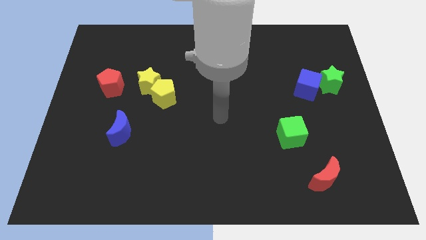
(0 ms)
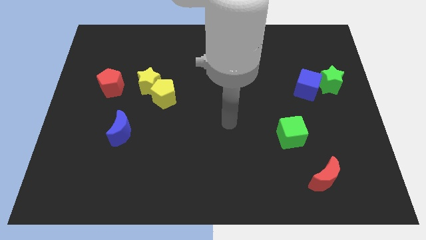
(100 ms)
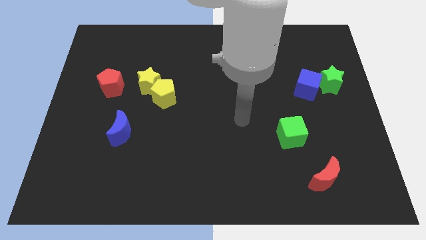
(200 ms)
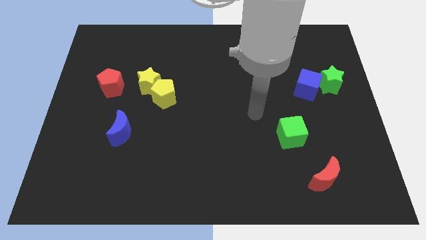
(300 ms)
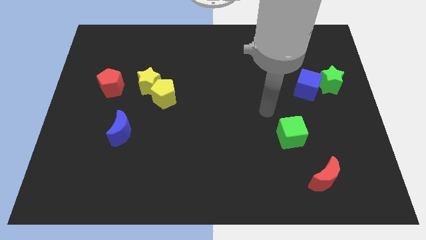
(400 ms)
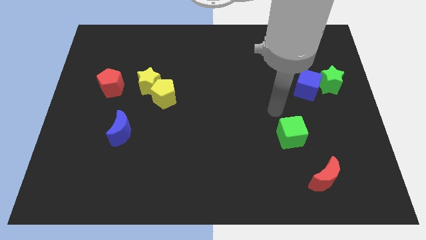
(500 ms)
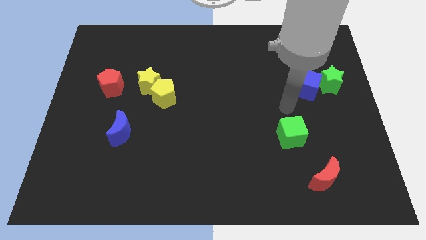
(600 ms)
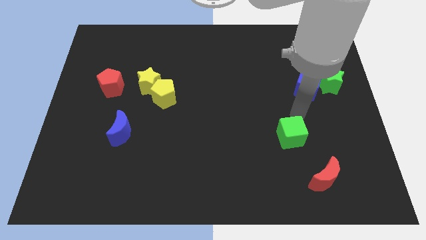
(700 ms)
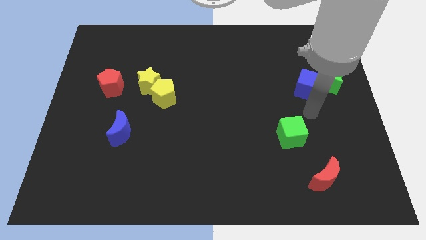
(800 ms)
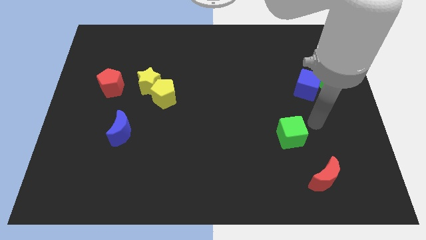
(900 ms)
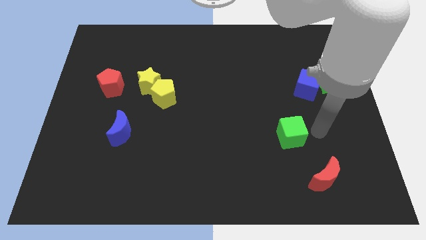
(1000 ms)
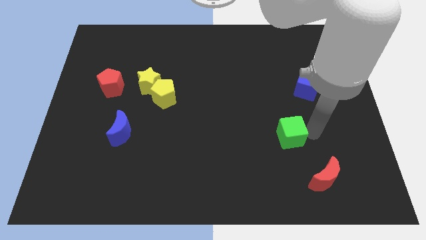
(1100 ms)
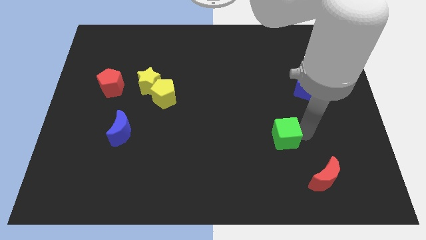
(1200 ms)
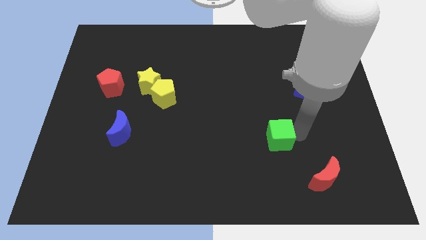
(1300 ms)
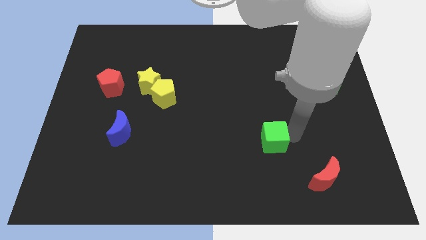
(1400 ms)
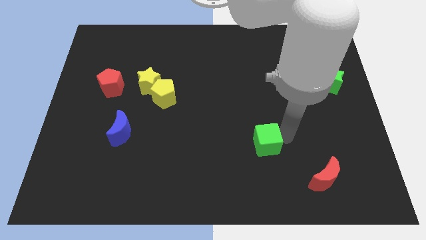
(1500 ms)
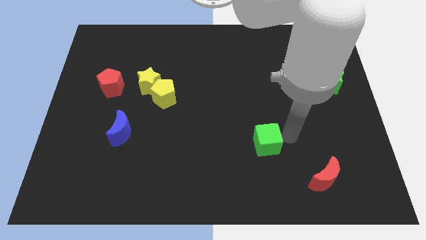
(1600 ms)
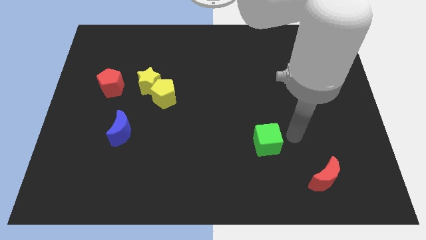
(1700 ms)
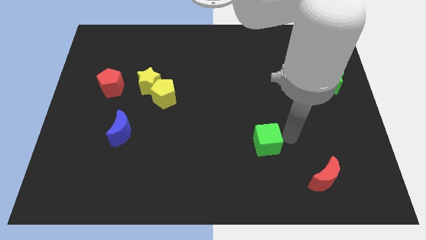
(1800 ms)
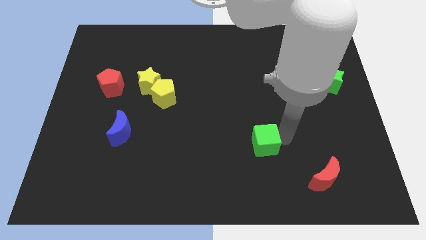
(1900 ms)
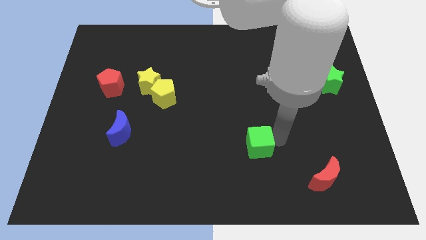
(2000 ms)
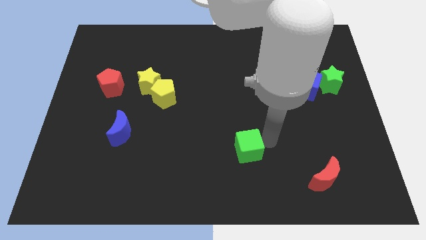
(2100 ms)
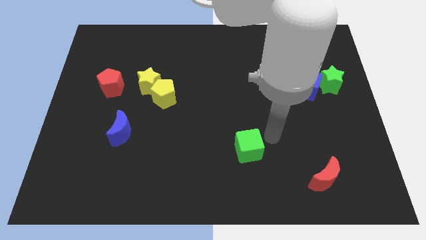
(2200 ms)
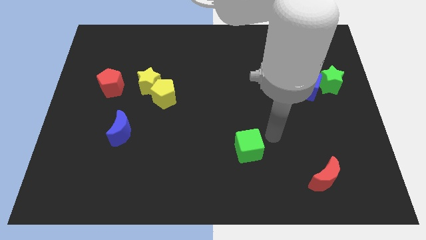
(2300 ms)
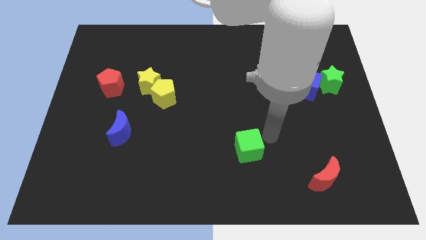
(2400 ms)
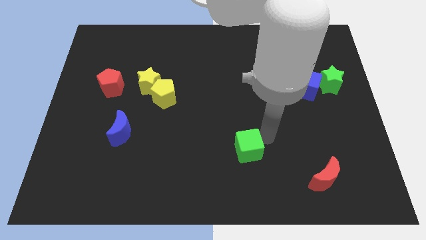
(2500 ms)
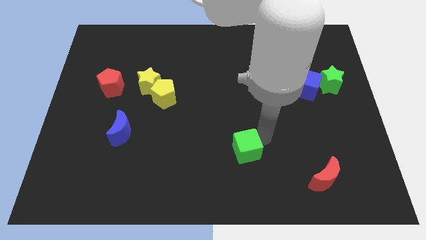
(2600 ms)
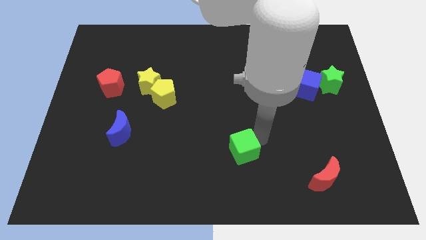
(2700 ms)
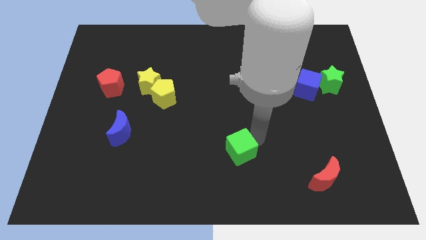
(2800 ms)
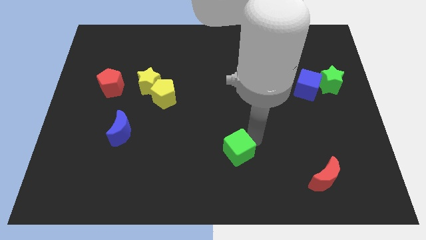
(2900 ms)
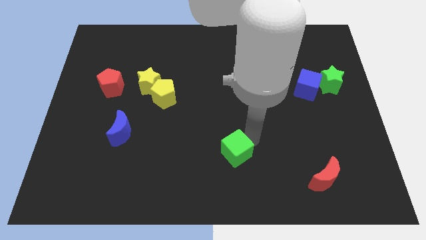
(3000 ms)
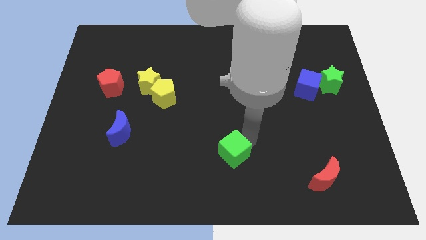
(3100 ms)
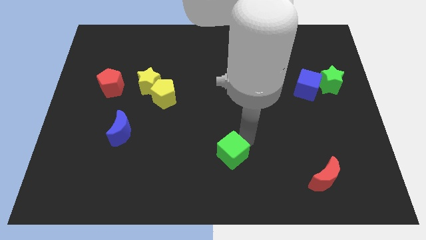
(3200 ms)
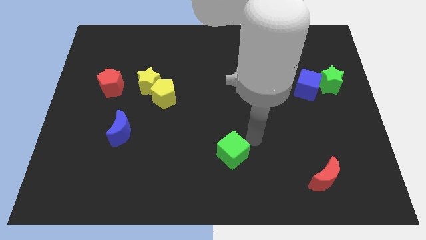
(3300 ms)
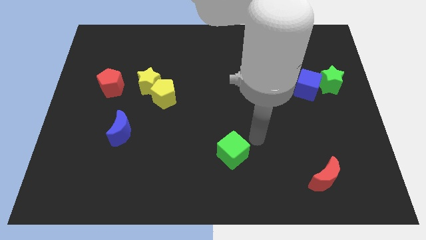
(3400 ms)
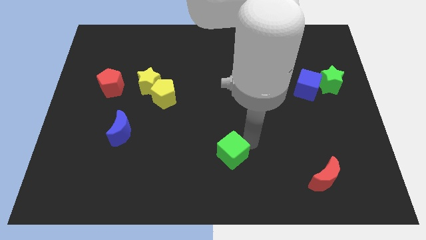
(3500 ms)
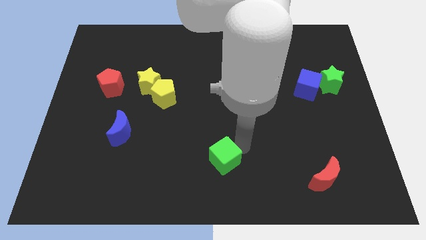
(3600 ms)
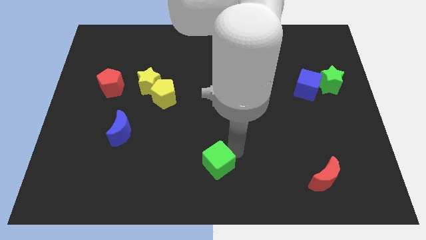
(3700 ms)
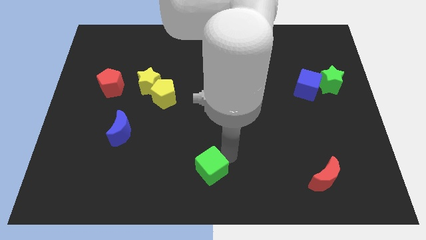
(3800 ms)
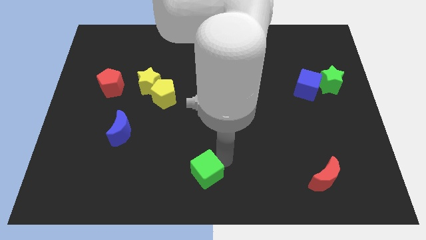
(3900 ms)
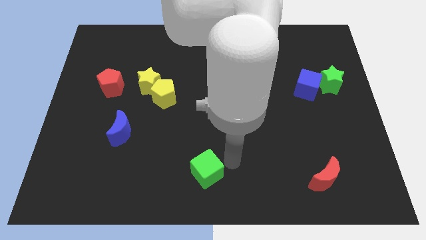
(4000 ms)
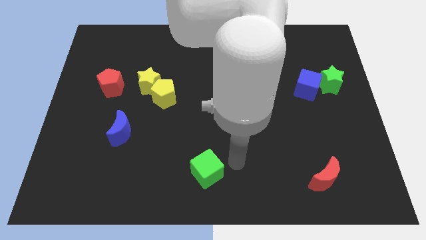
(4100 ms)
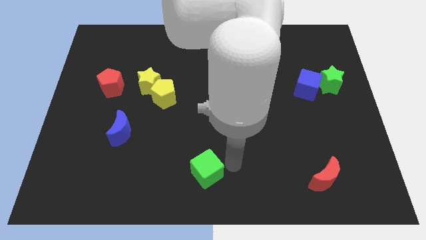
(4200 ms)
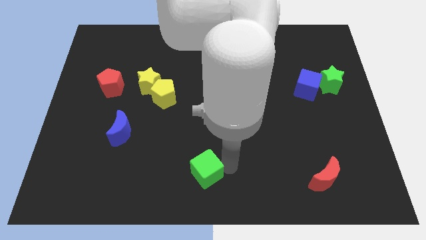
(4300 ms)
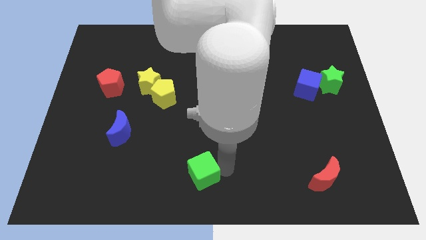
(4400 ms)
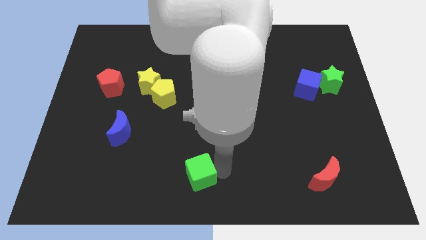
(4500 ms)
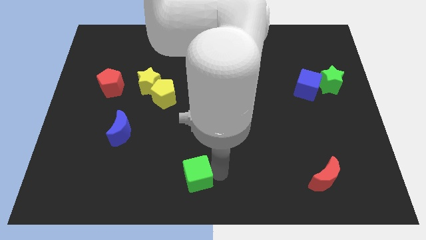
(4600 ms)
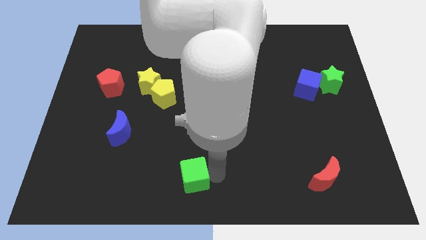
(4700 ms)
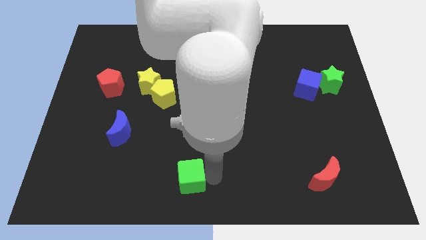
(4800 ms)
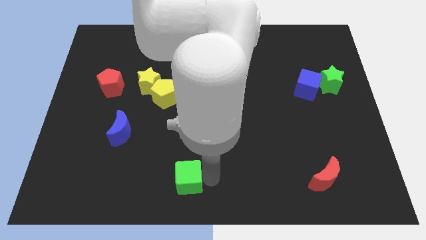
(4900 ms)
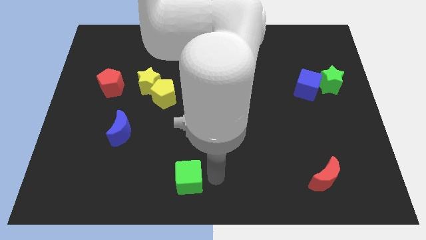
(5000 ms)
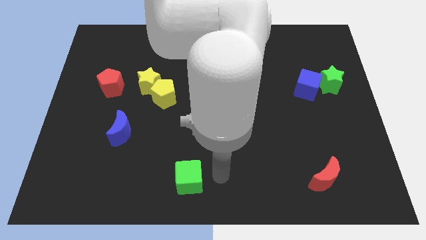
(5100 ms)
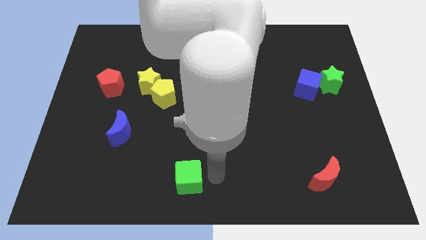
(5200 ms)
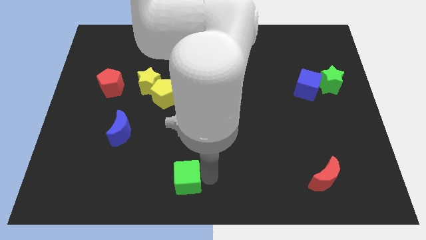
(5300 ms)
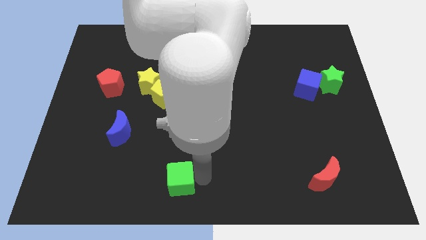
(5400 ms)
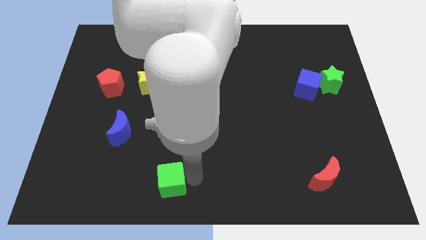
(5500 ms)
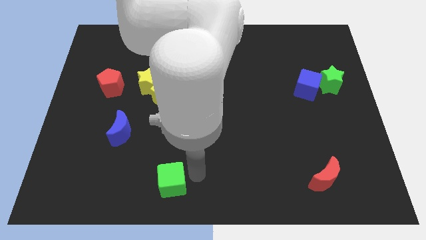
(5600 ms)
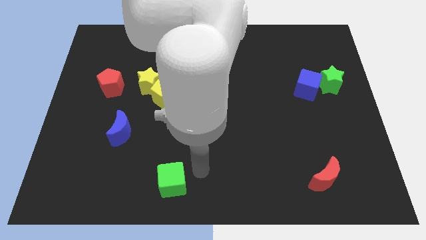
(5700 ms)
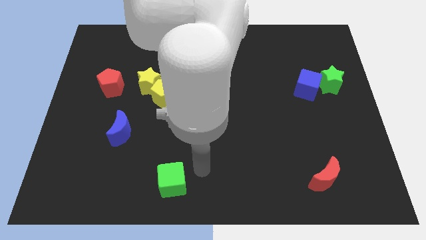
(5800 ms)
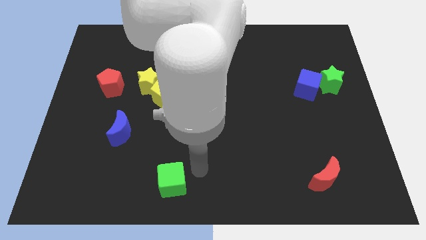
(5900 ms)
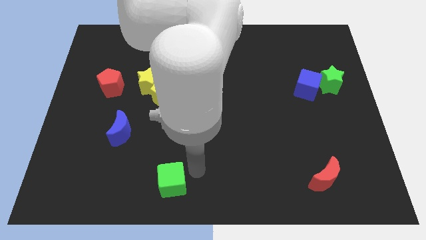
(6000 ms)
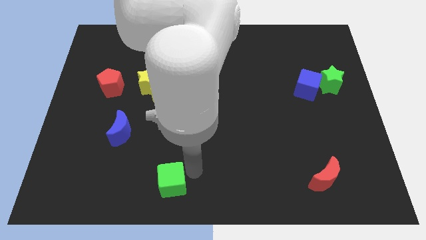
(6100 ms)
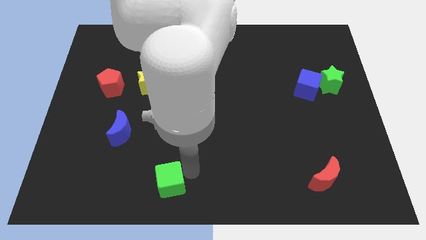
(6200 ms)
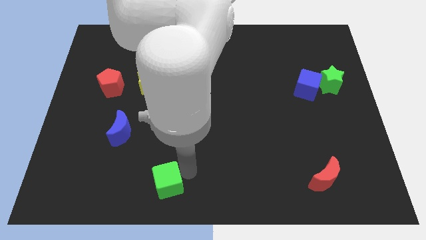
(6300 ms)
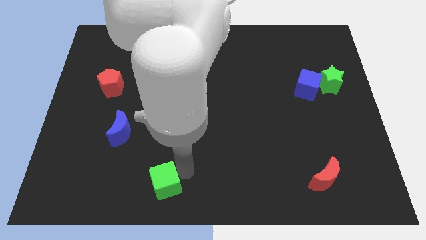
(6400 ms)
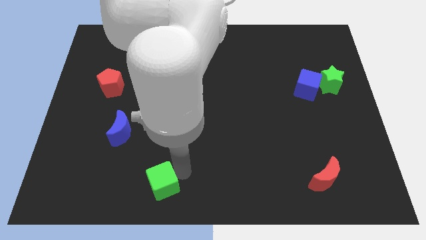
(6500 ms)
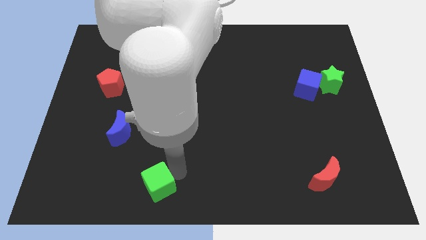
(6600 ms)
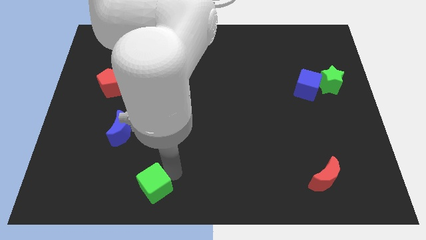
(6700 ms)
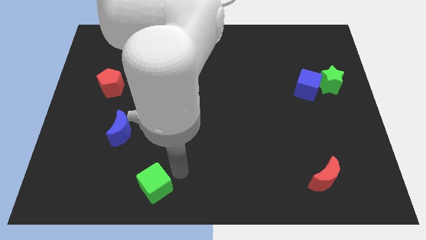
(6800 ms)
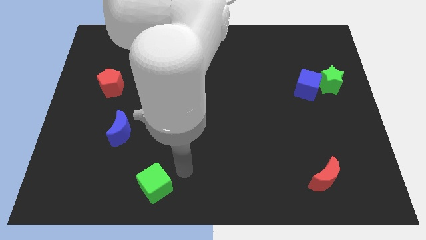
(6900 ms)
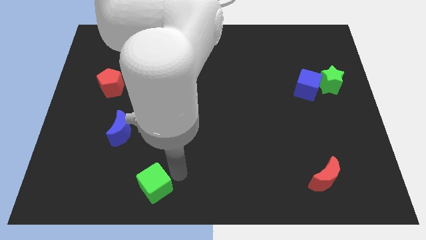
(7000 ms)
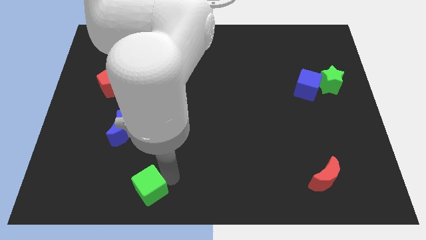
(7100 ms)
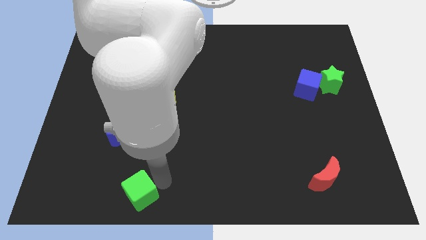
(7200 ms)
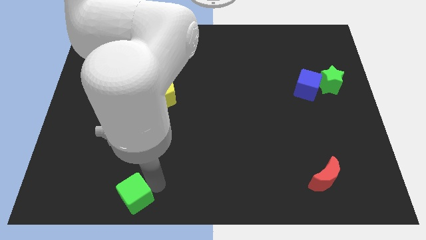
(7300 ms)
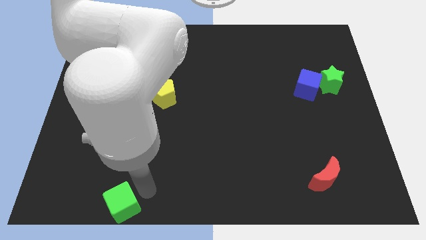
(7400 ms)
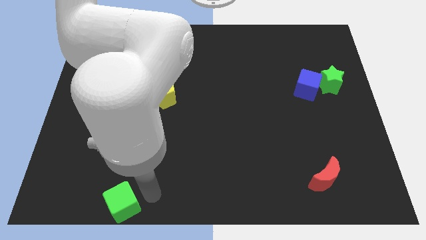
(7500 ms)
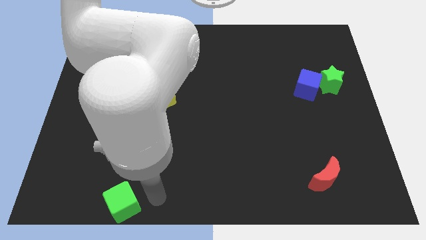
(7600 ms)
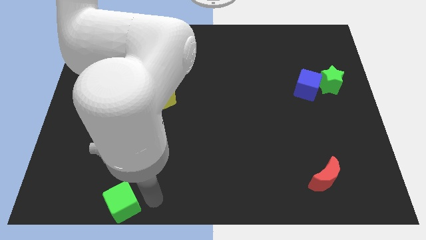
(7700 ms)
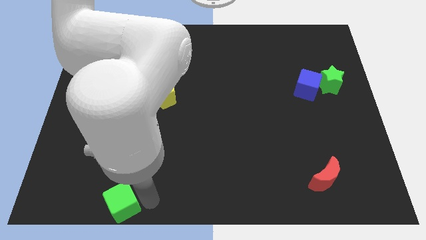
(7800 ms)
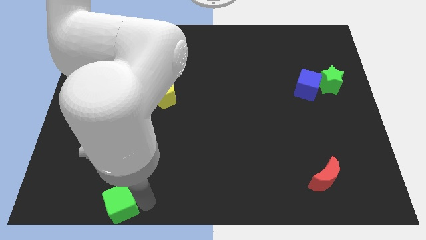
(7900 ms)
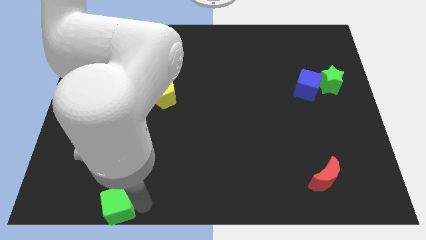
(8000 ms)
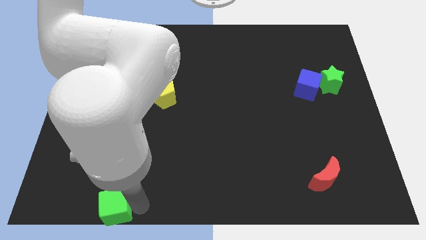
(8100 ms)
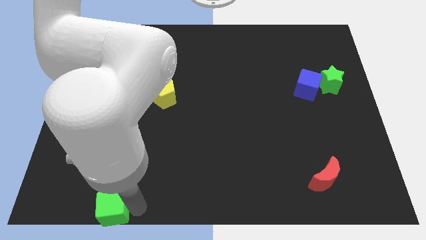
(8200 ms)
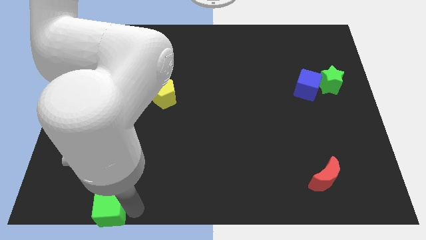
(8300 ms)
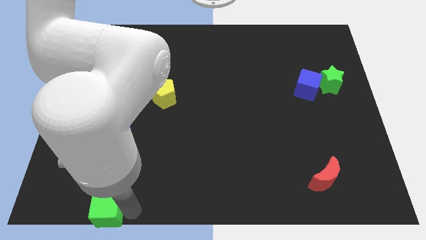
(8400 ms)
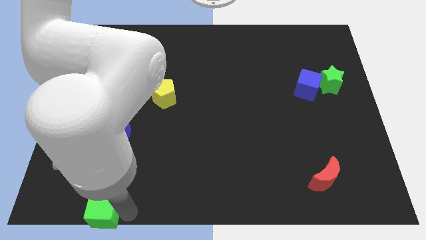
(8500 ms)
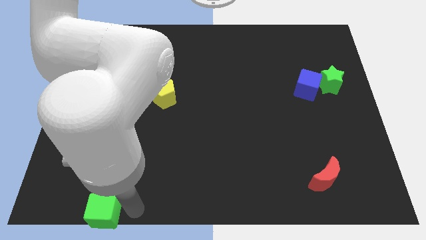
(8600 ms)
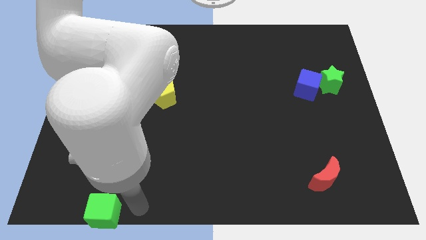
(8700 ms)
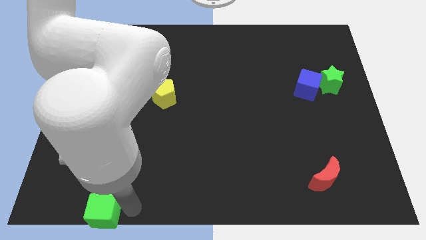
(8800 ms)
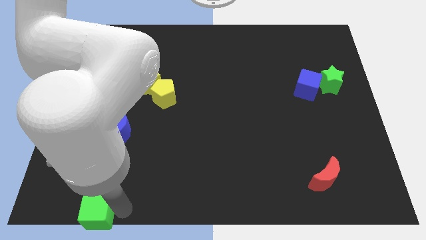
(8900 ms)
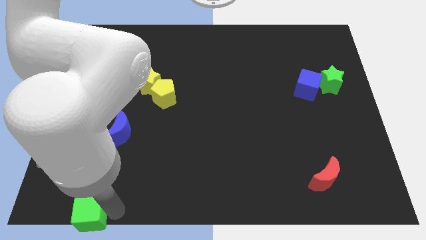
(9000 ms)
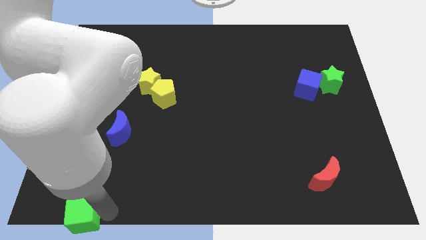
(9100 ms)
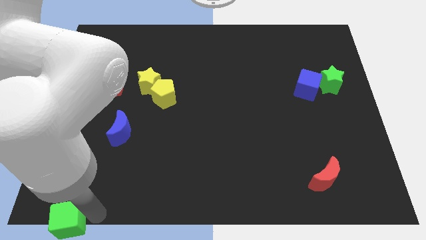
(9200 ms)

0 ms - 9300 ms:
push the green cube to the lower left corner
